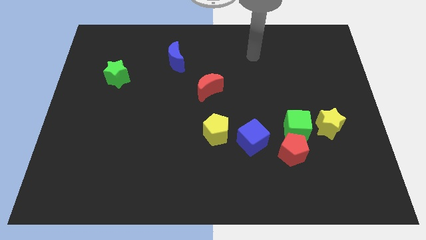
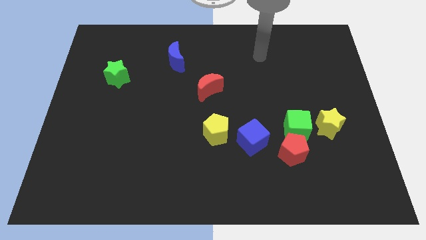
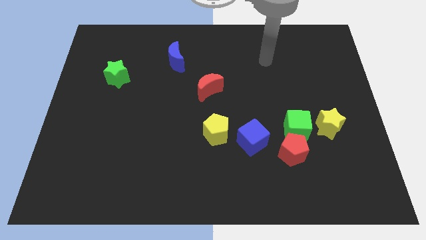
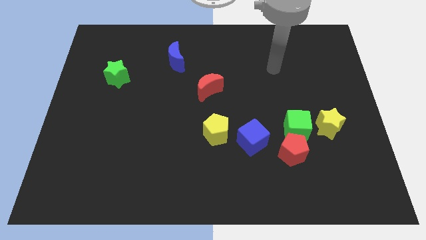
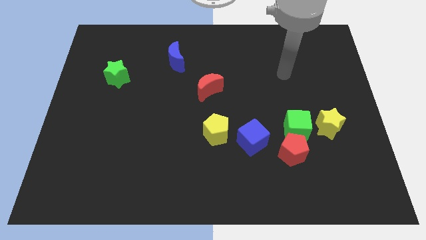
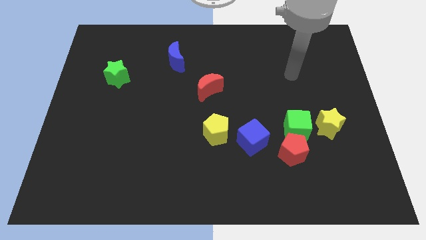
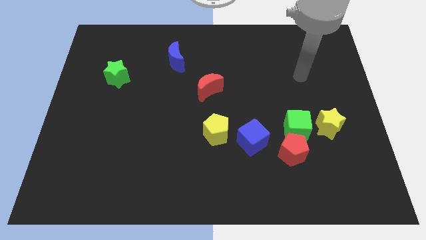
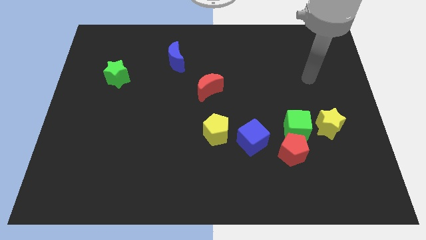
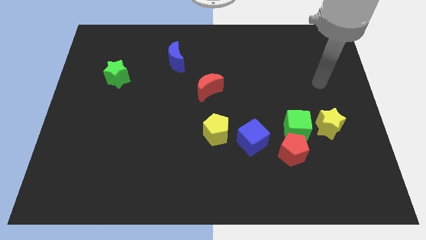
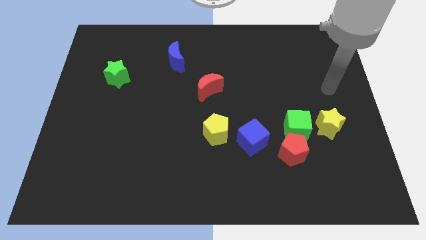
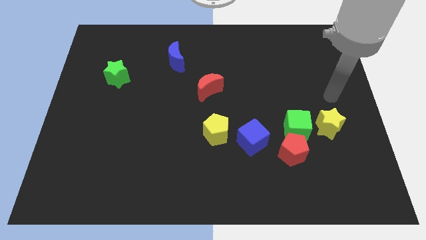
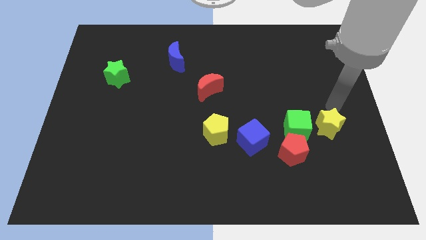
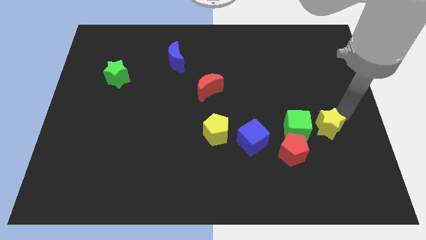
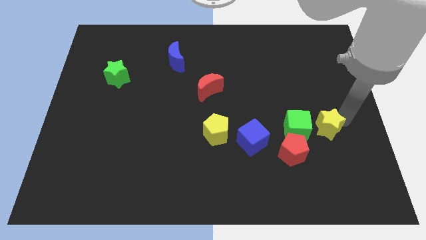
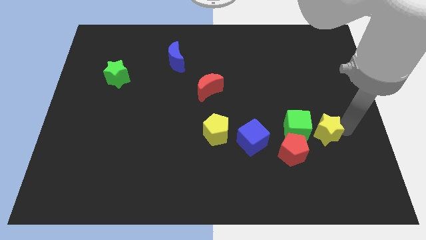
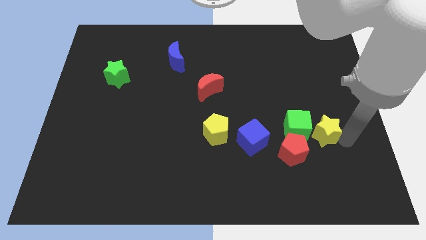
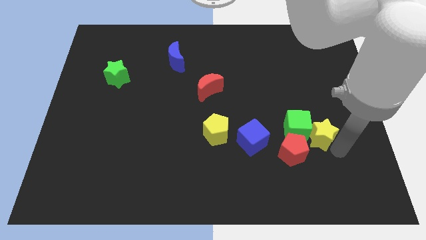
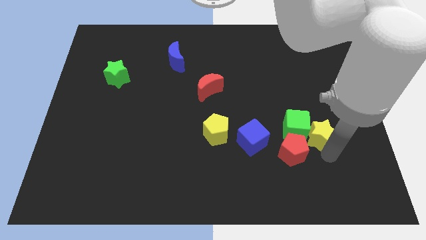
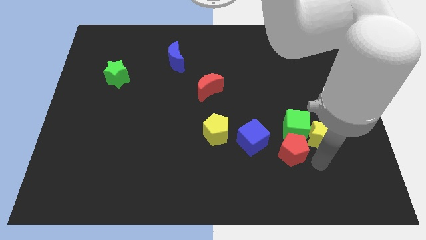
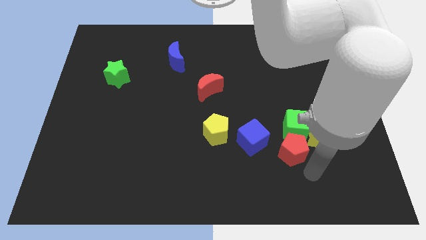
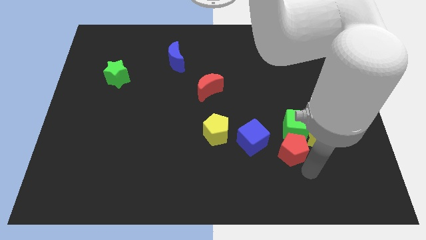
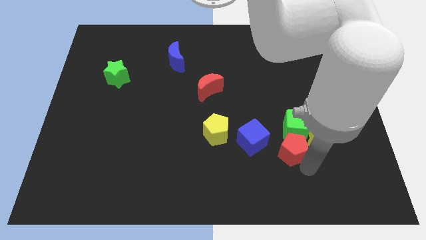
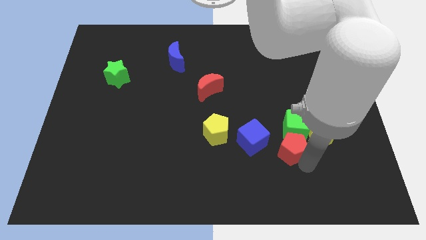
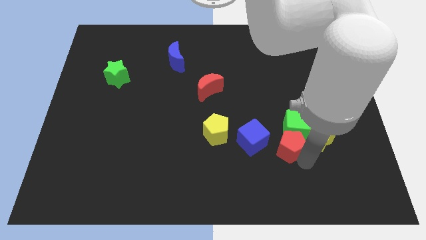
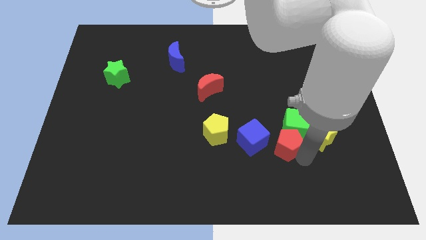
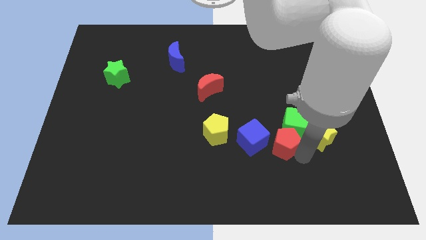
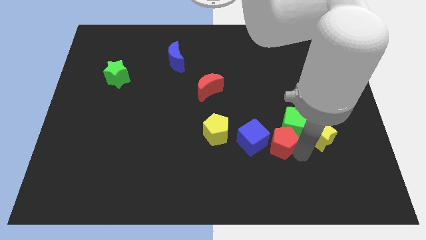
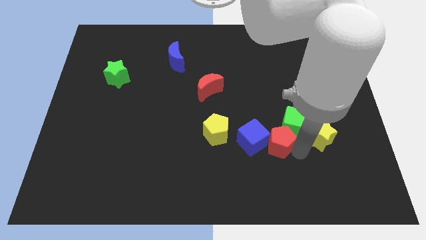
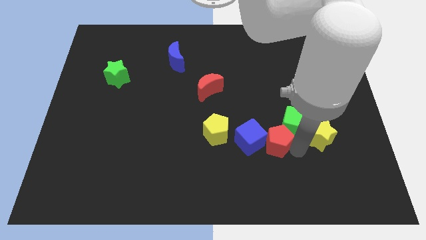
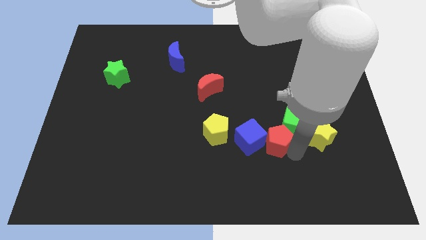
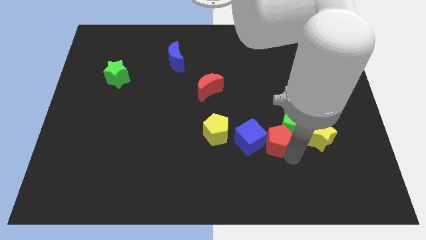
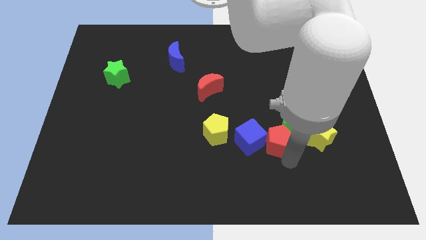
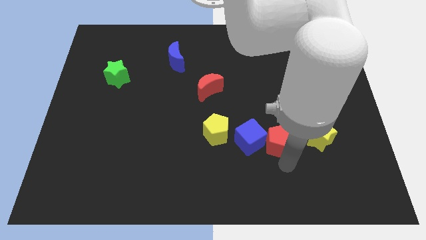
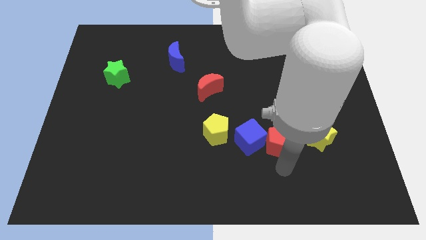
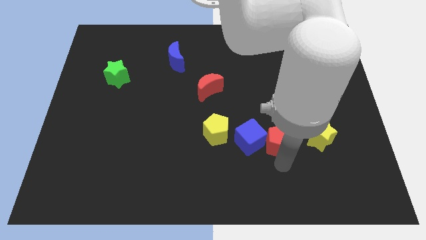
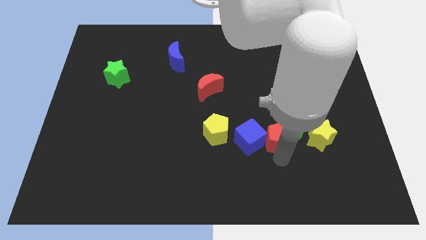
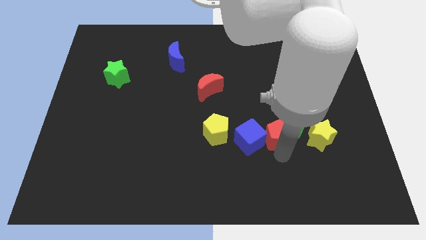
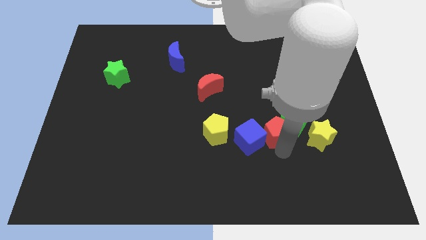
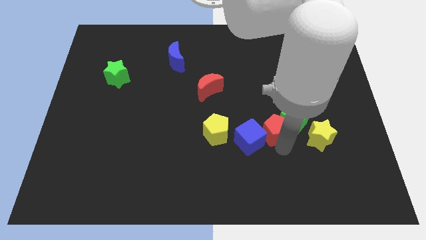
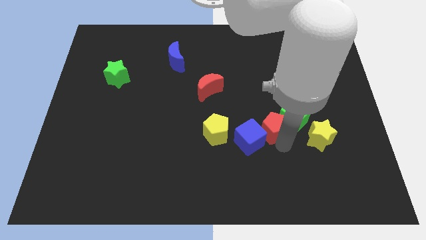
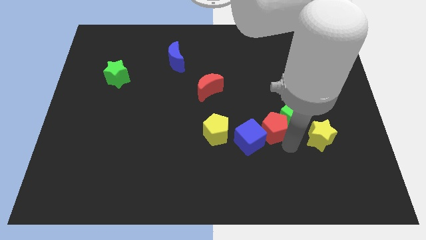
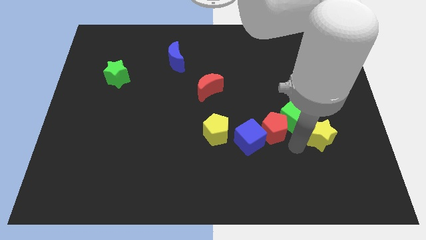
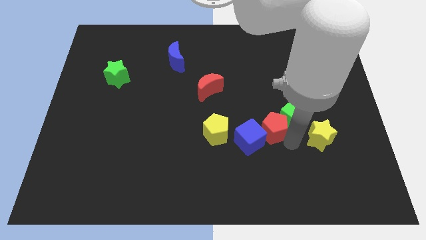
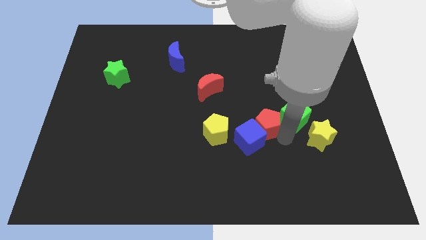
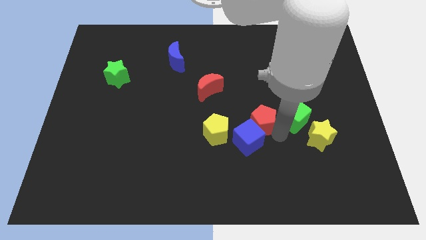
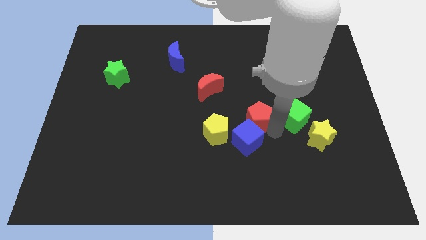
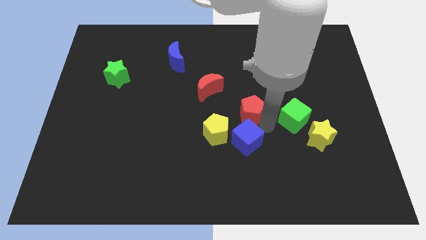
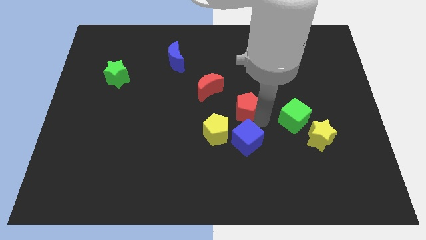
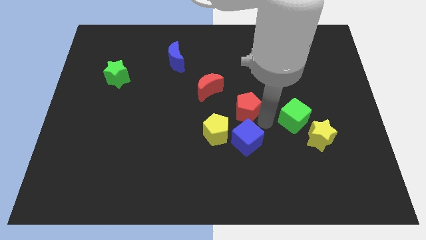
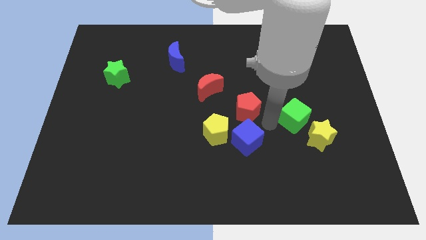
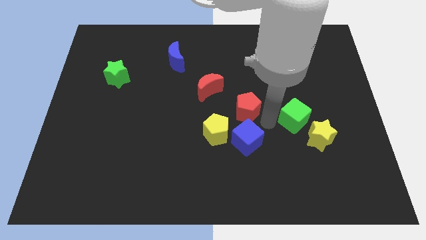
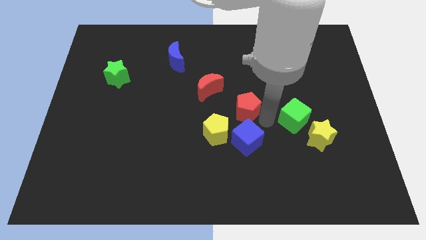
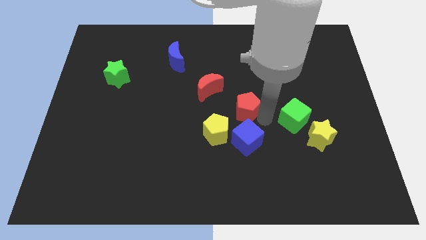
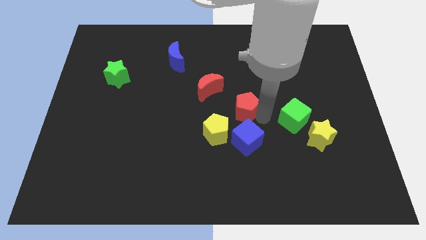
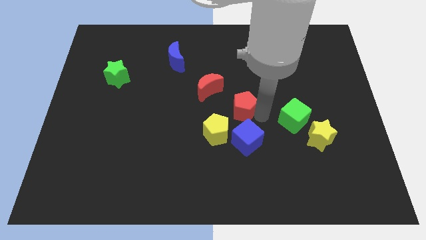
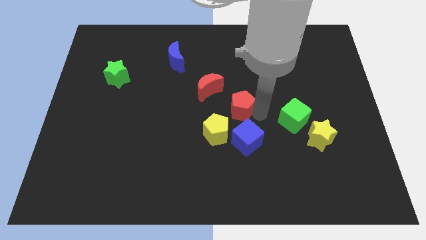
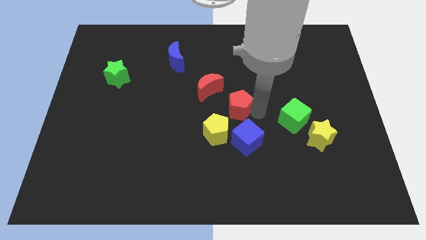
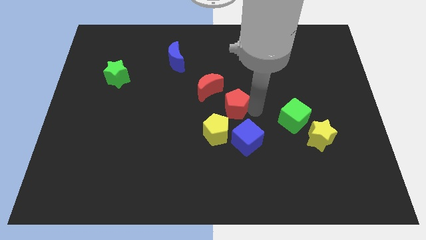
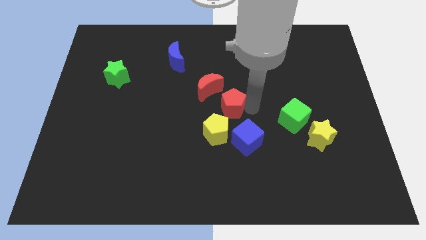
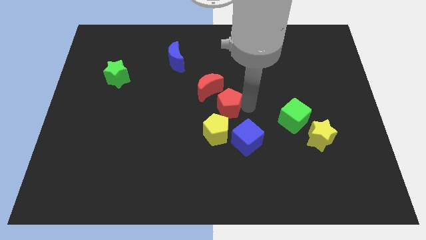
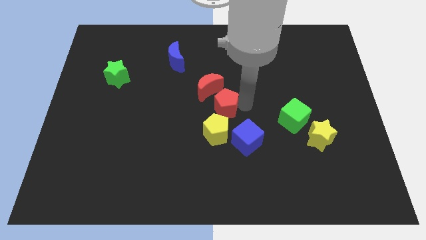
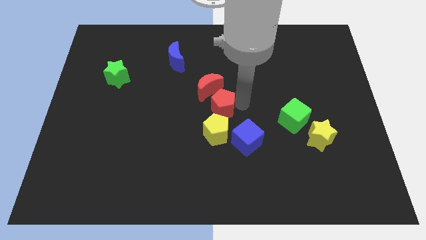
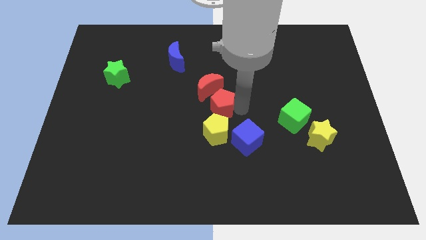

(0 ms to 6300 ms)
put the red pentagon to the red moon
